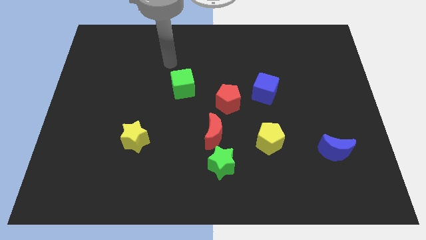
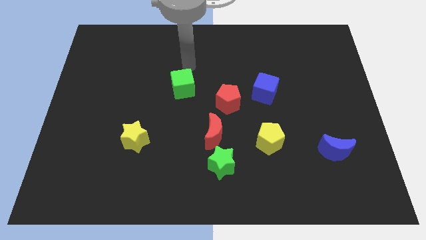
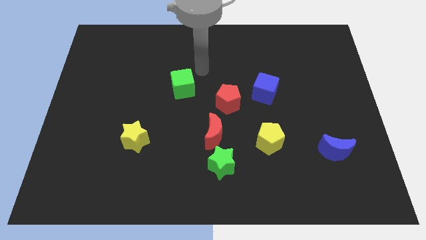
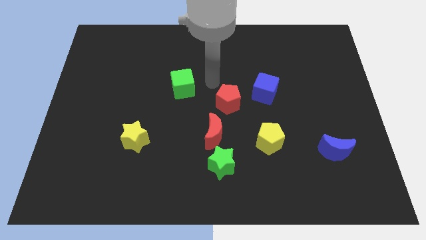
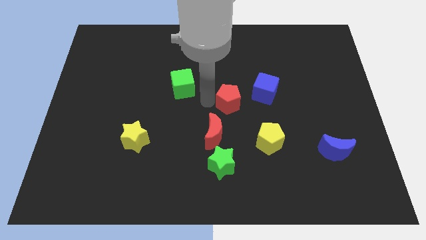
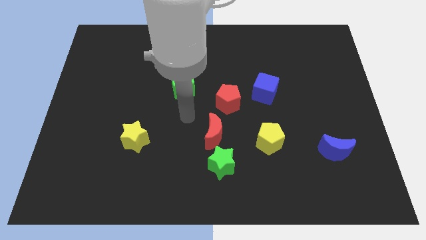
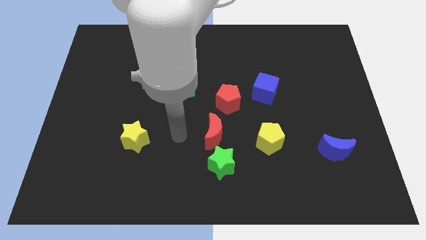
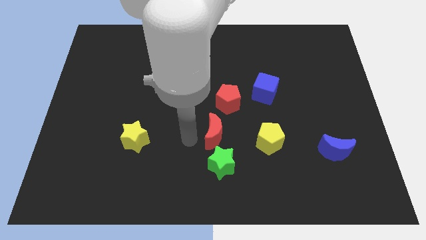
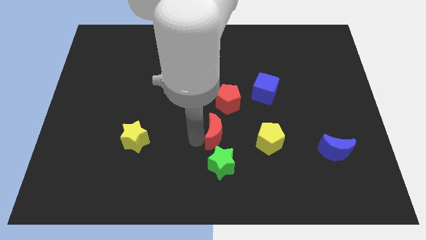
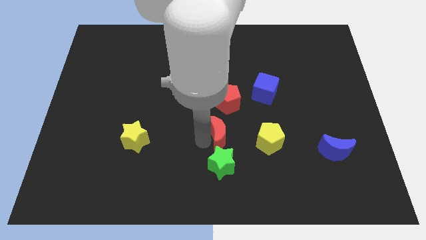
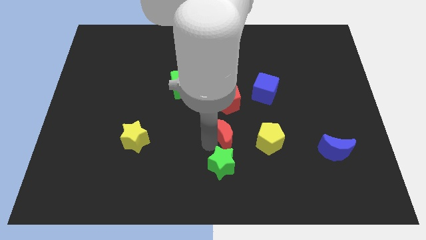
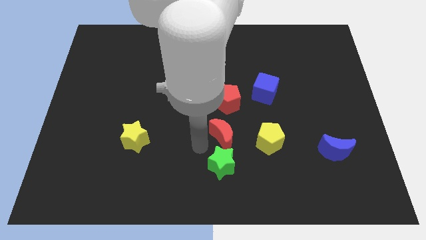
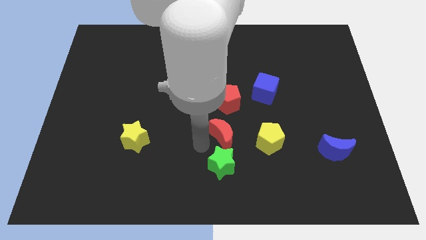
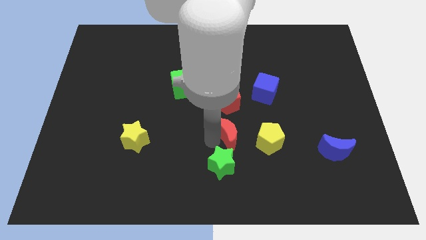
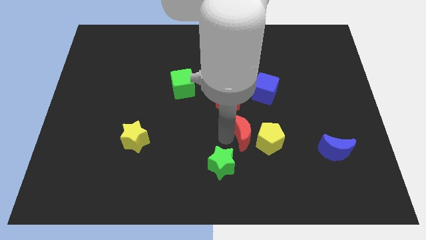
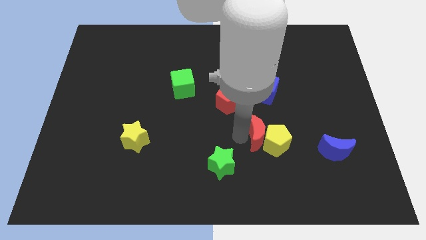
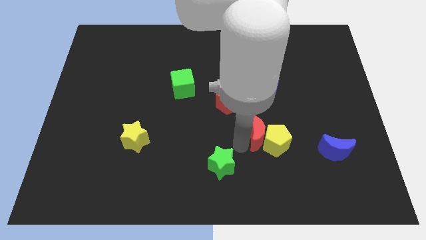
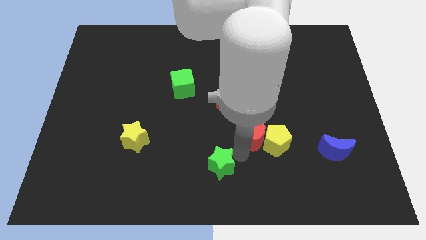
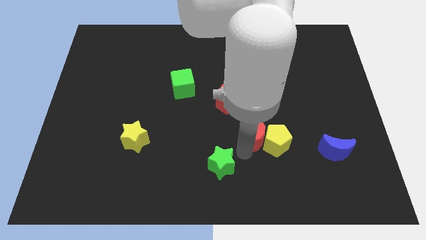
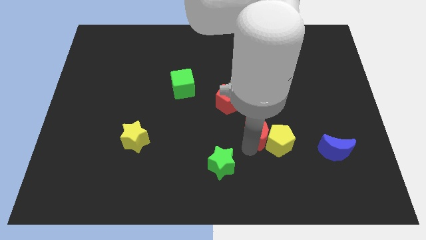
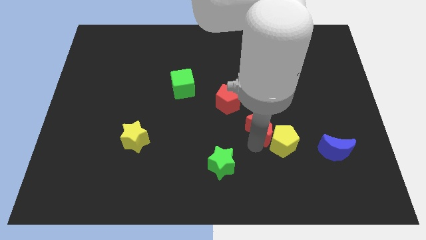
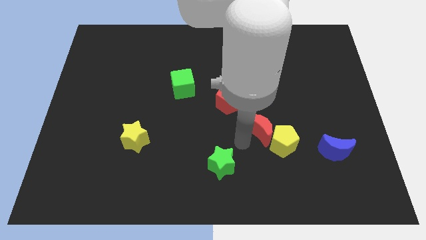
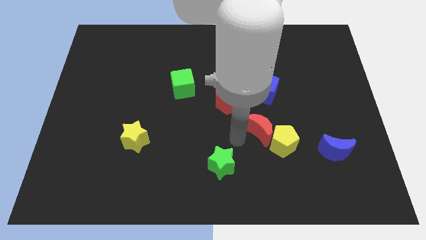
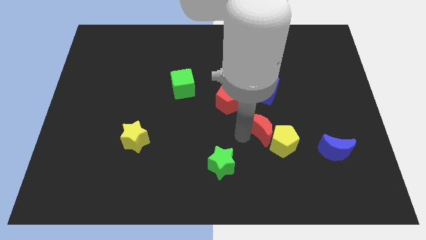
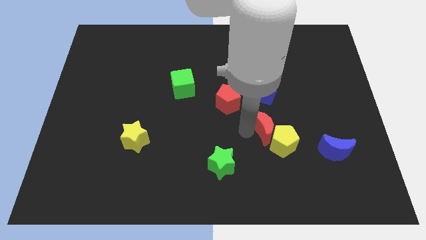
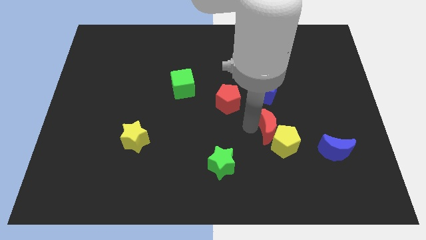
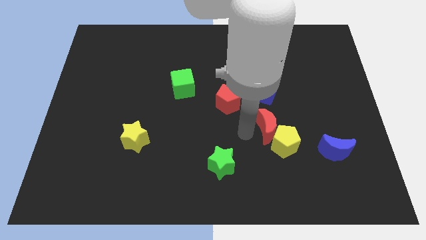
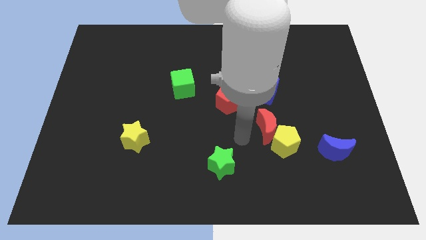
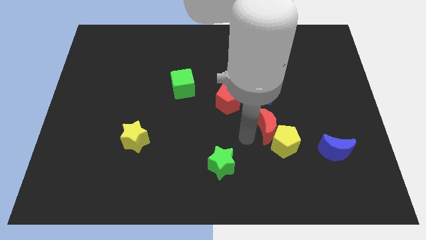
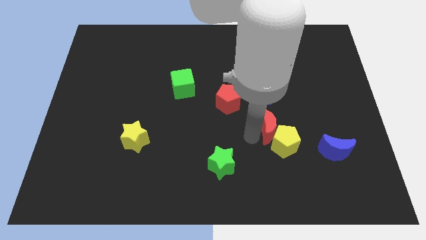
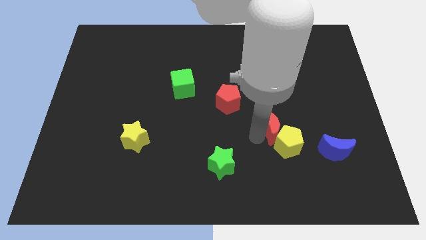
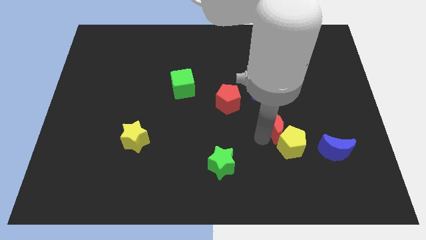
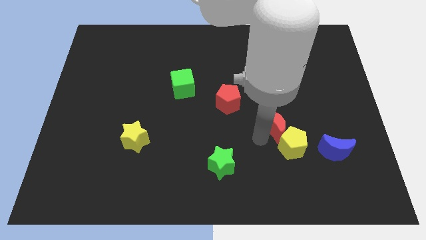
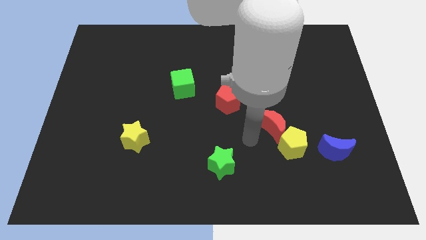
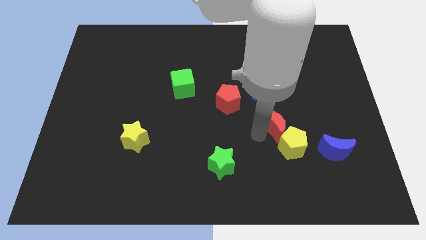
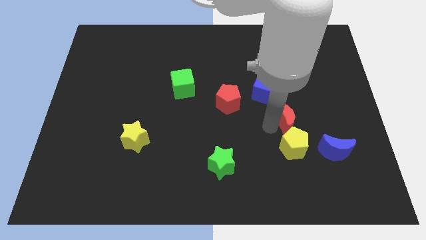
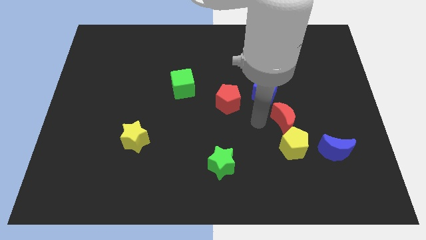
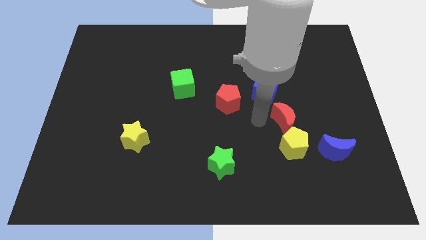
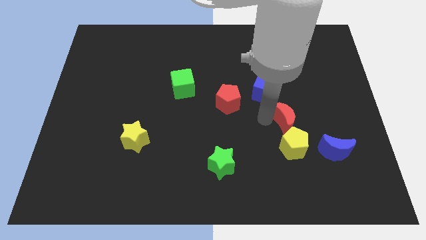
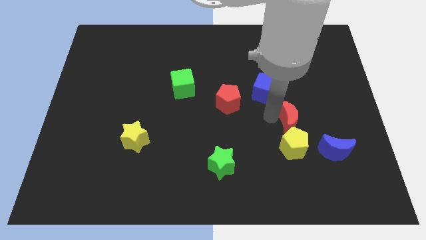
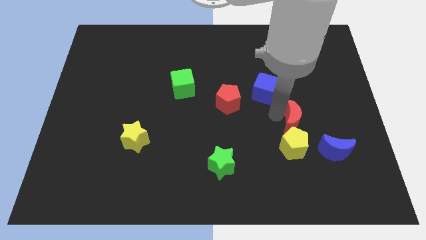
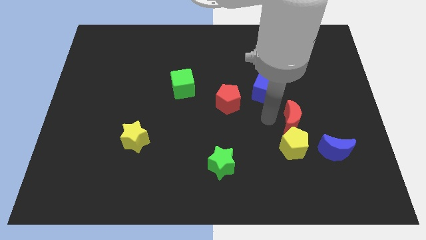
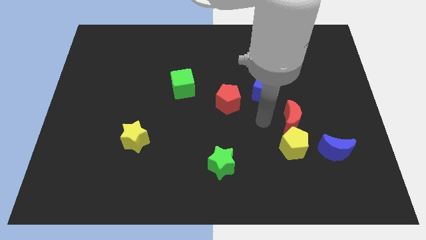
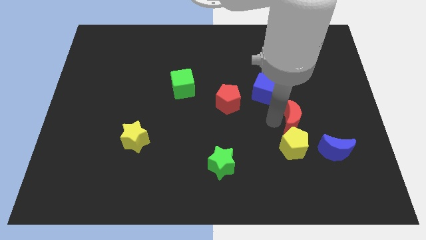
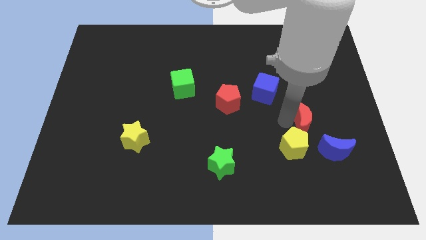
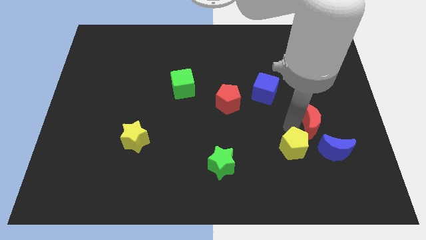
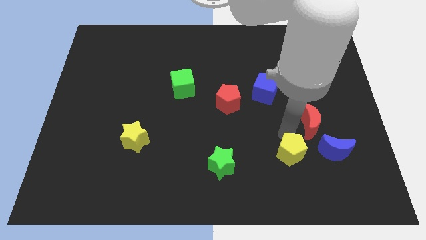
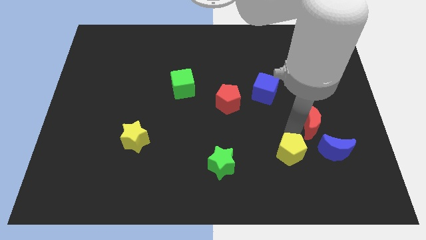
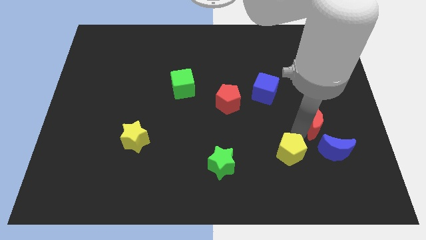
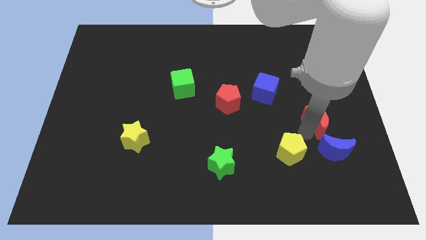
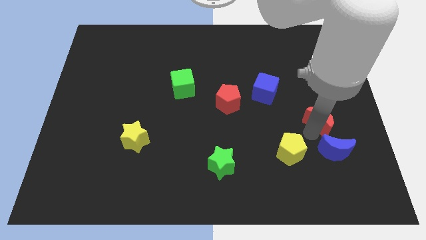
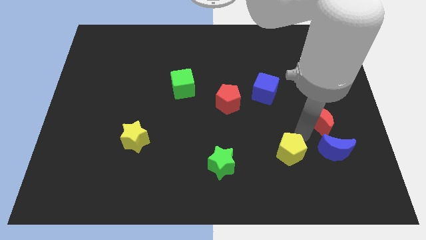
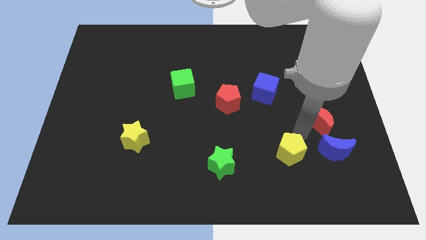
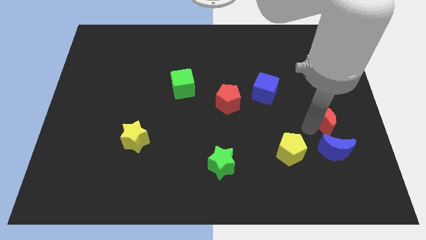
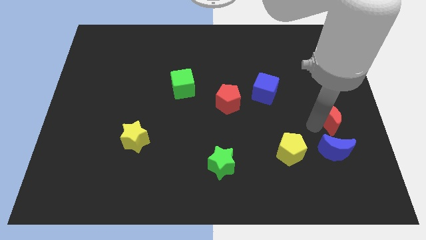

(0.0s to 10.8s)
slide the red moon to the center right
